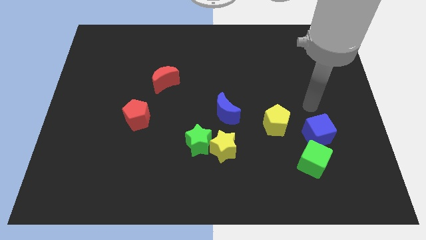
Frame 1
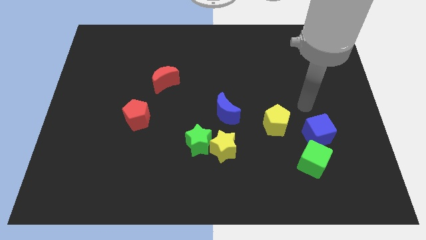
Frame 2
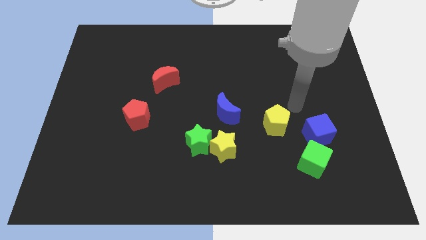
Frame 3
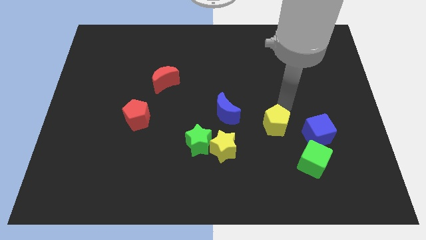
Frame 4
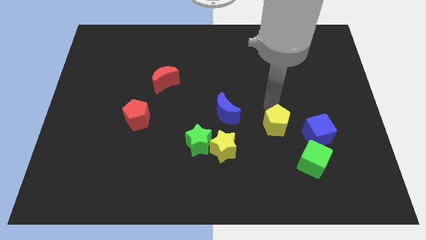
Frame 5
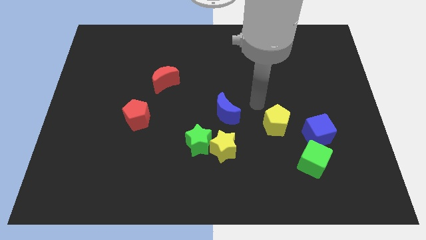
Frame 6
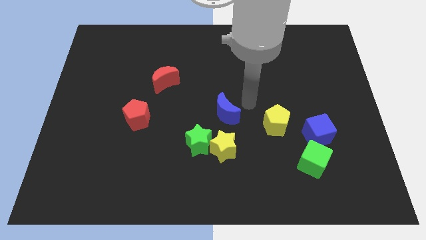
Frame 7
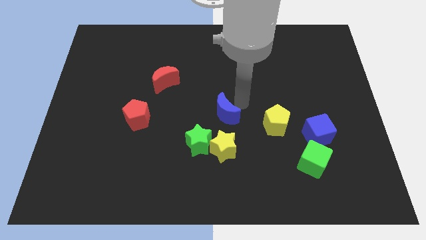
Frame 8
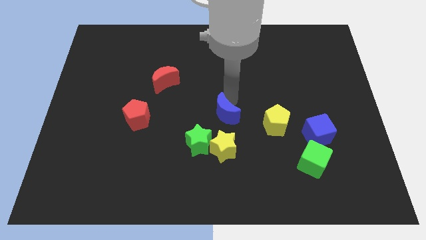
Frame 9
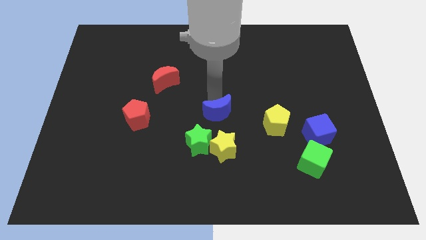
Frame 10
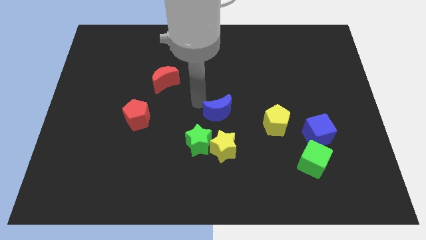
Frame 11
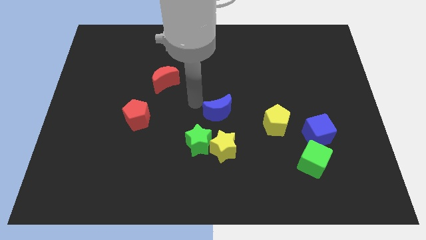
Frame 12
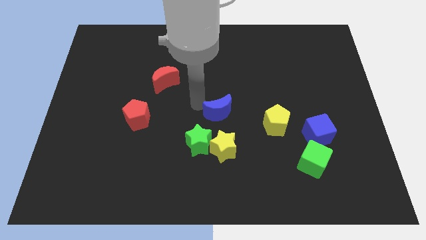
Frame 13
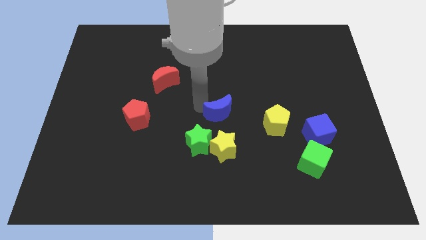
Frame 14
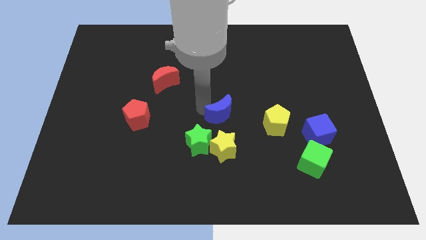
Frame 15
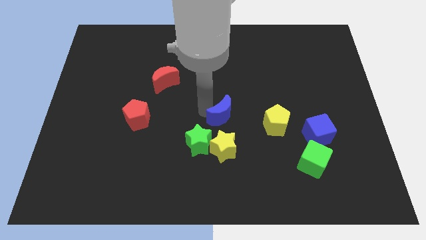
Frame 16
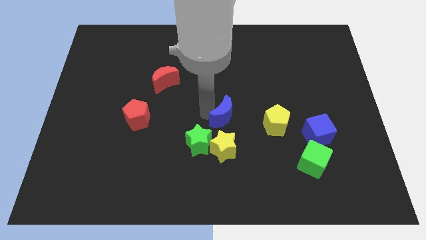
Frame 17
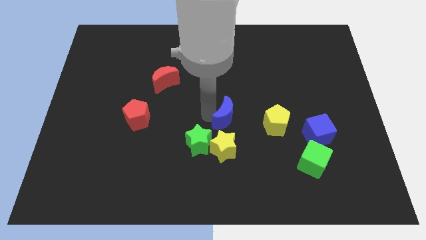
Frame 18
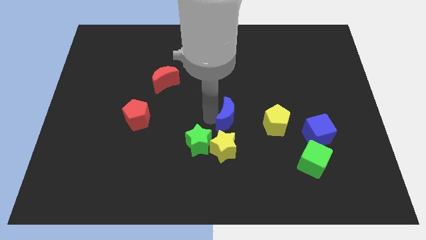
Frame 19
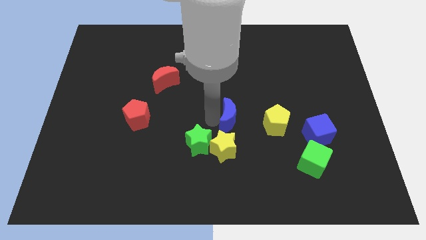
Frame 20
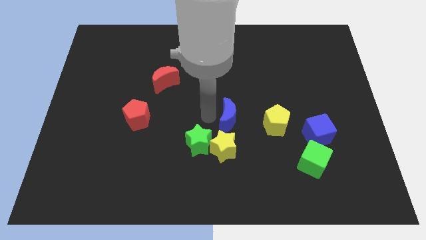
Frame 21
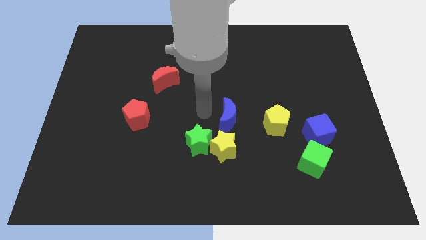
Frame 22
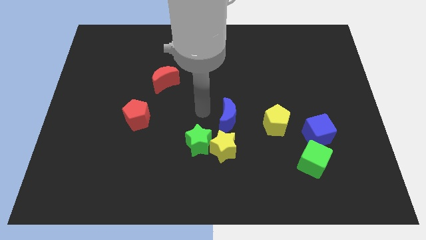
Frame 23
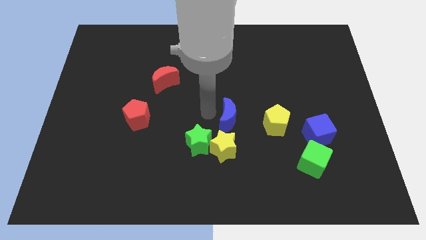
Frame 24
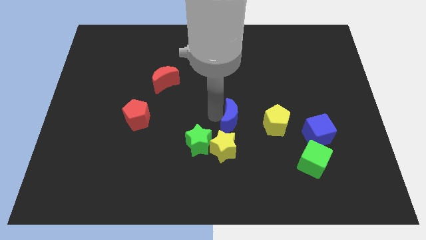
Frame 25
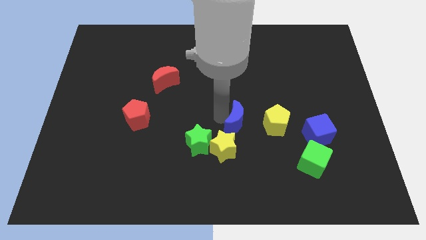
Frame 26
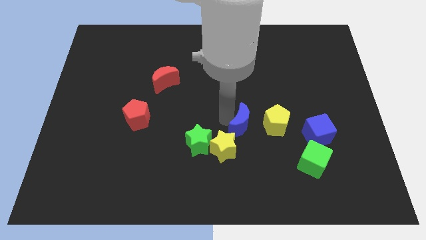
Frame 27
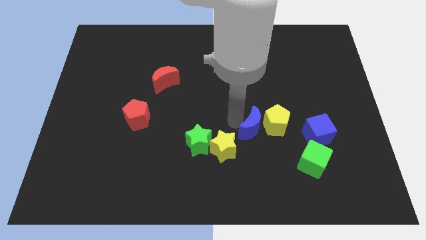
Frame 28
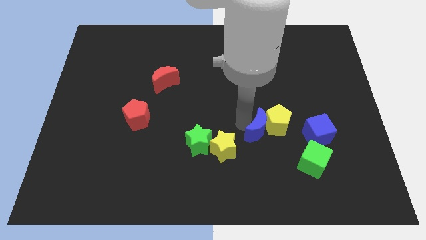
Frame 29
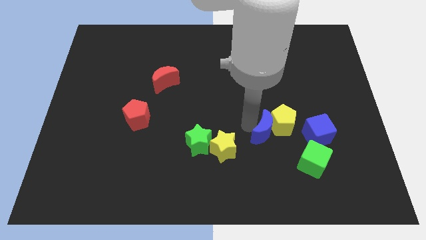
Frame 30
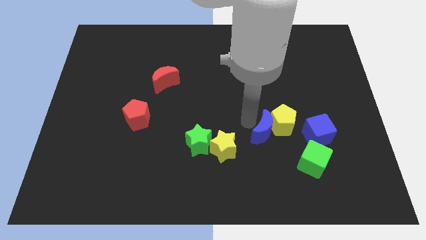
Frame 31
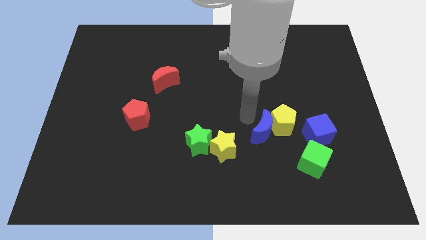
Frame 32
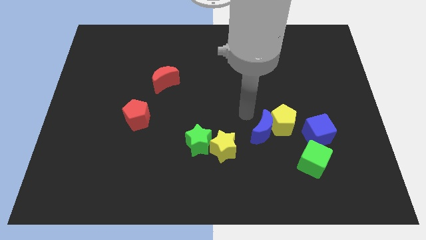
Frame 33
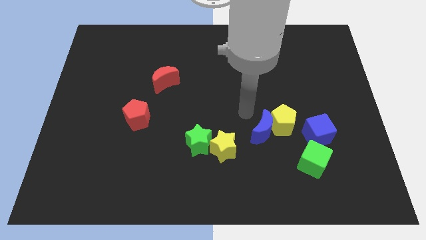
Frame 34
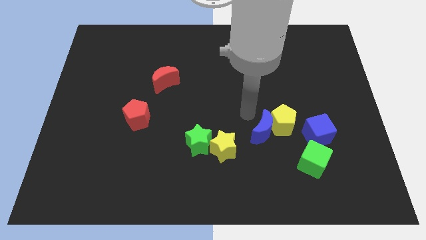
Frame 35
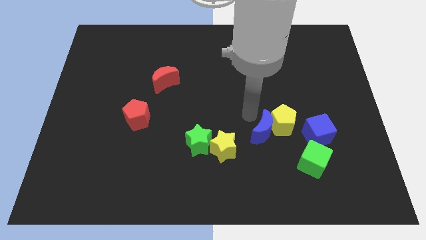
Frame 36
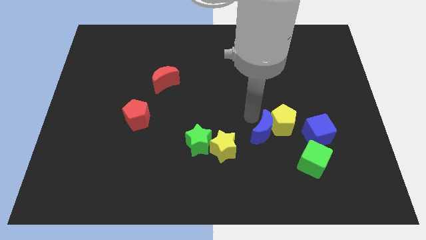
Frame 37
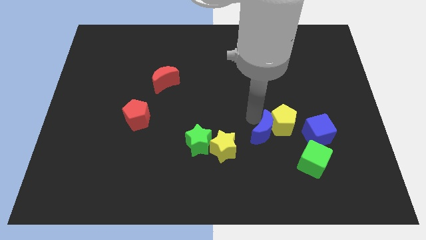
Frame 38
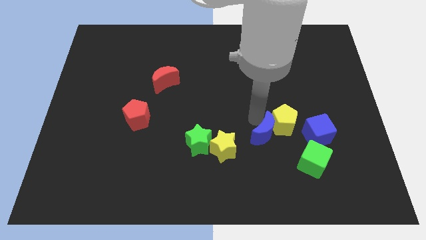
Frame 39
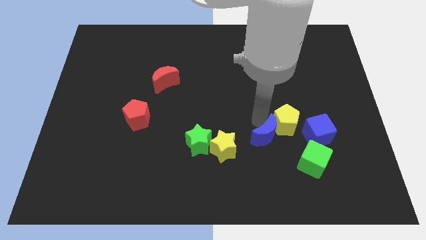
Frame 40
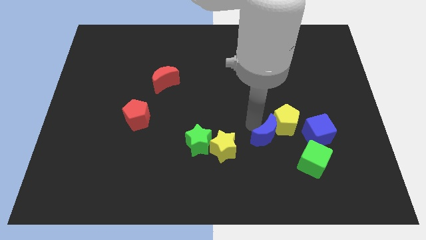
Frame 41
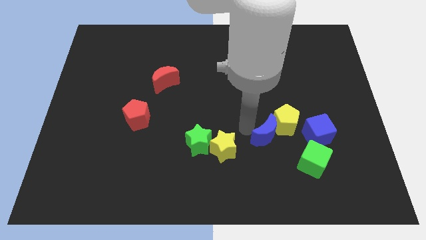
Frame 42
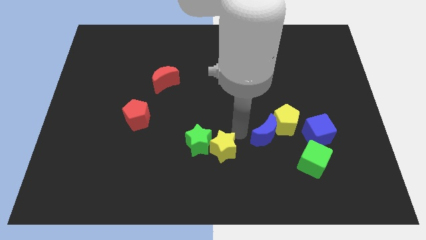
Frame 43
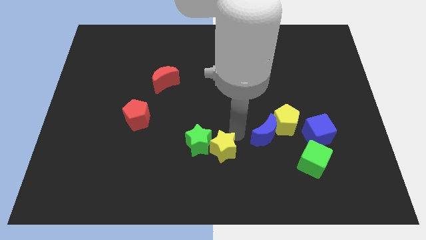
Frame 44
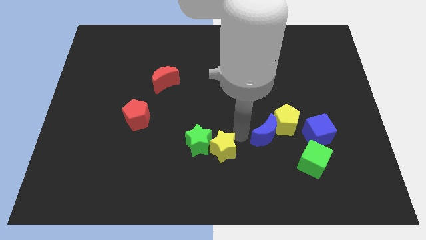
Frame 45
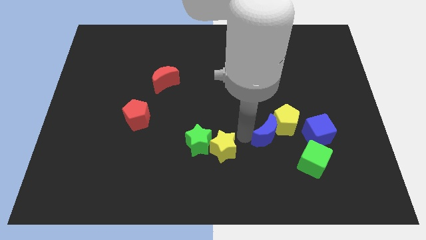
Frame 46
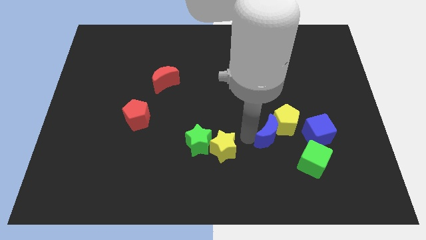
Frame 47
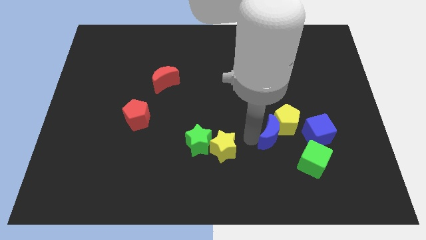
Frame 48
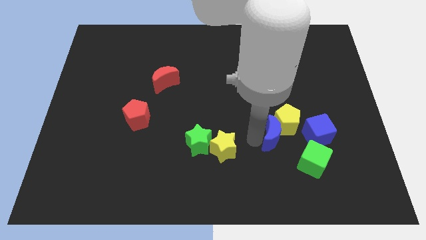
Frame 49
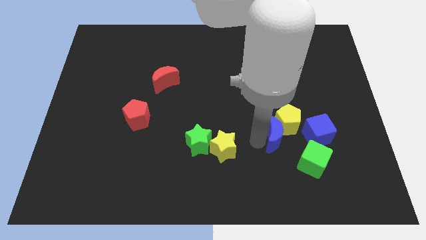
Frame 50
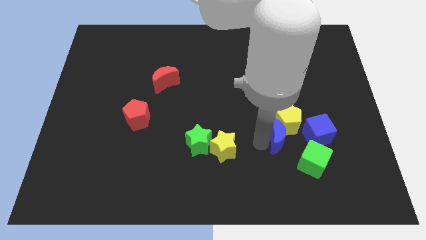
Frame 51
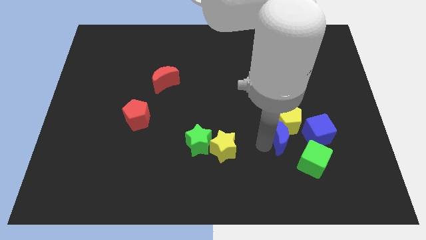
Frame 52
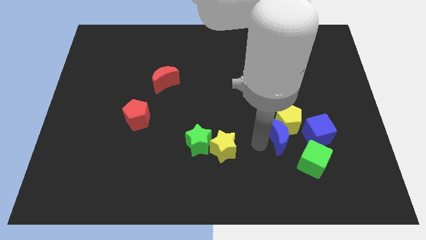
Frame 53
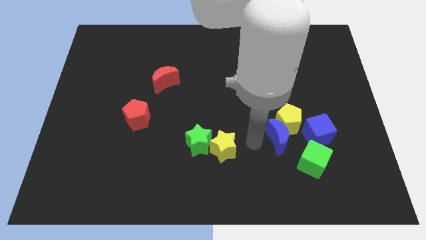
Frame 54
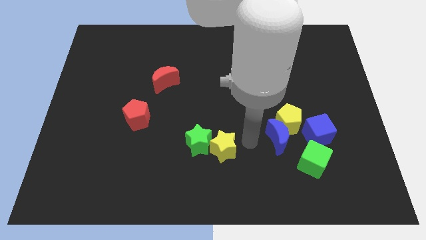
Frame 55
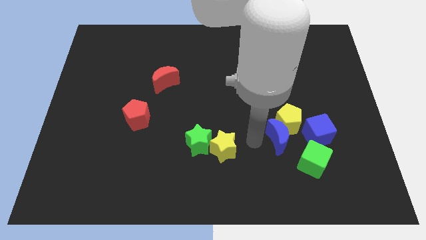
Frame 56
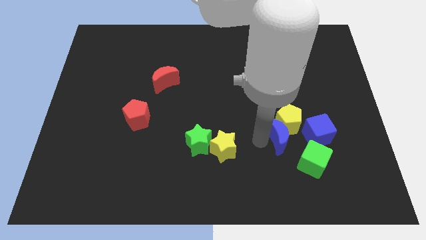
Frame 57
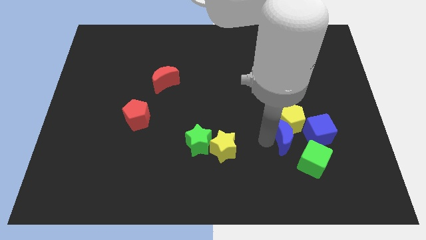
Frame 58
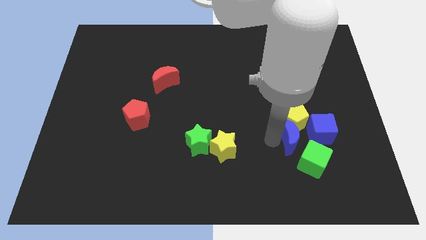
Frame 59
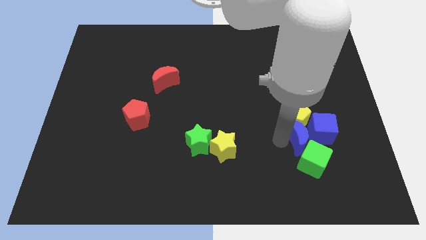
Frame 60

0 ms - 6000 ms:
slide the blue moon to the blue cube

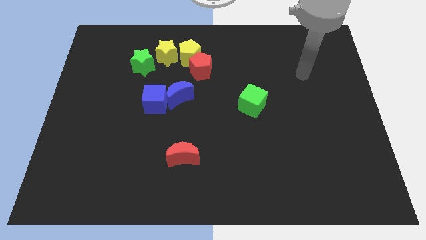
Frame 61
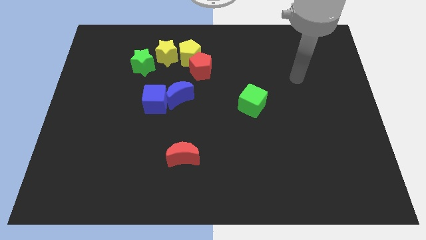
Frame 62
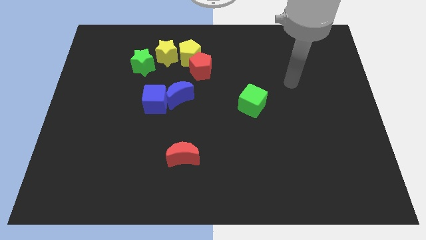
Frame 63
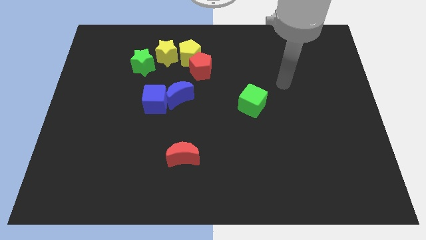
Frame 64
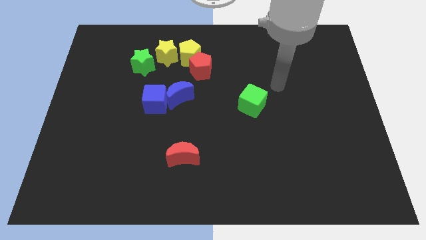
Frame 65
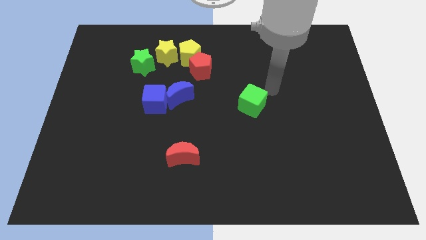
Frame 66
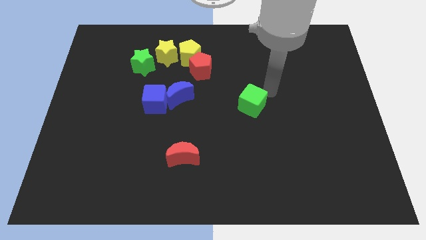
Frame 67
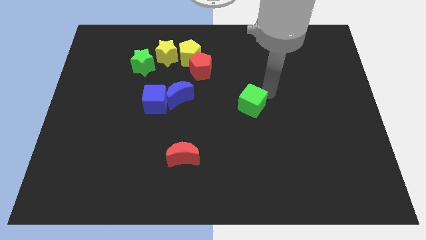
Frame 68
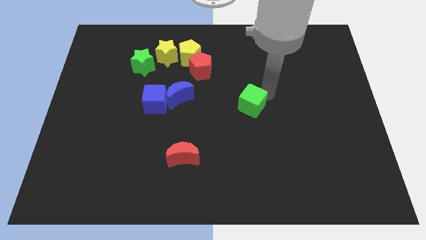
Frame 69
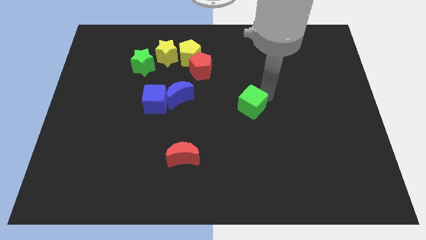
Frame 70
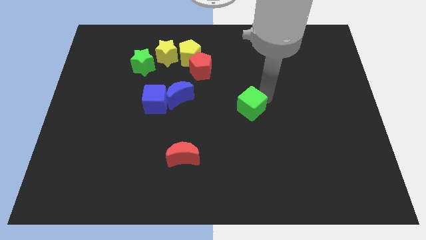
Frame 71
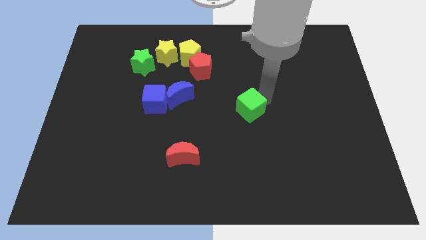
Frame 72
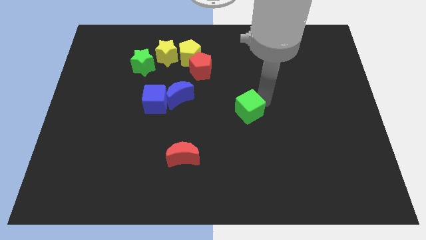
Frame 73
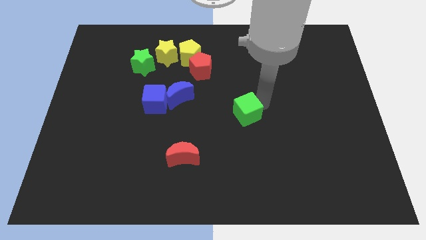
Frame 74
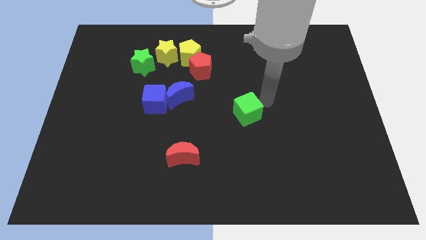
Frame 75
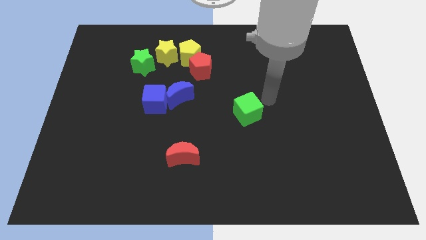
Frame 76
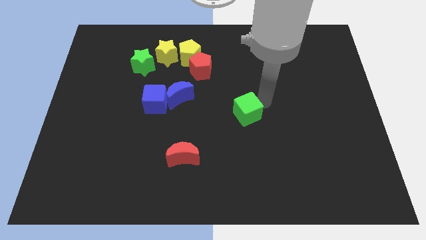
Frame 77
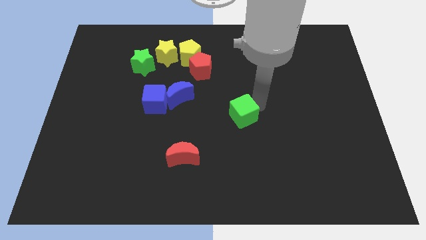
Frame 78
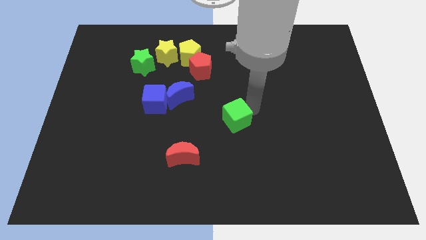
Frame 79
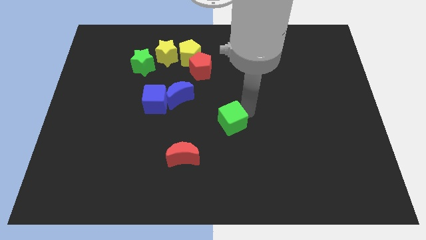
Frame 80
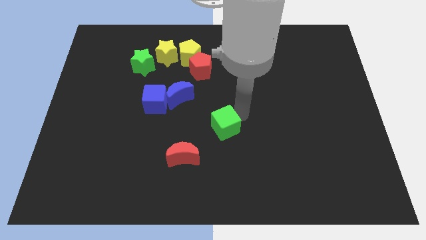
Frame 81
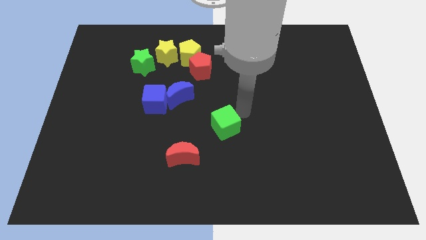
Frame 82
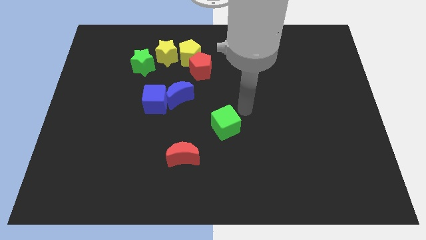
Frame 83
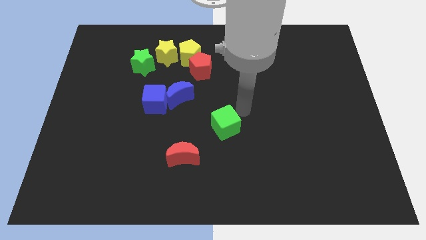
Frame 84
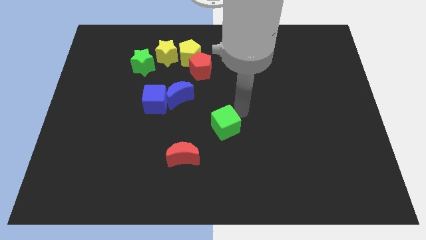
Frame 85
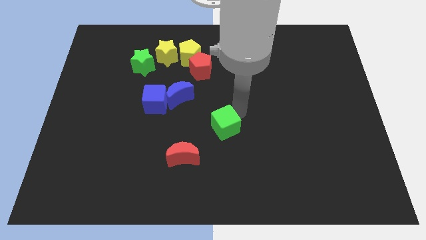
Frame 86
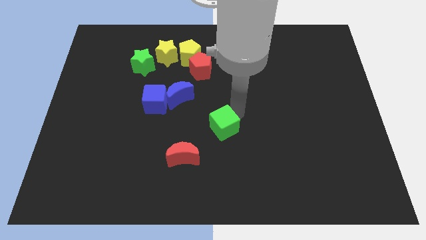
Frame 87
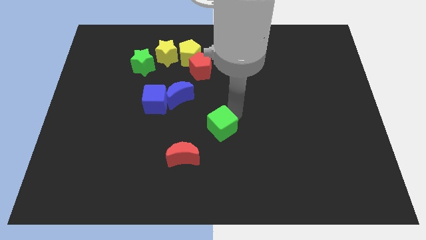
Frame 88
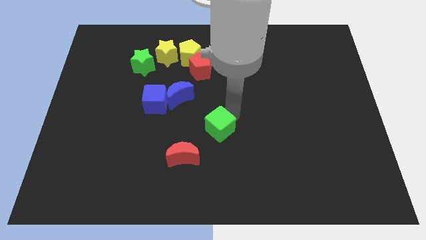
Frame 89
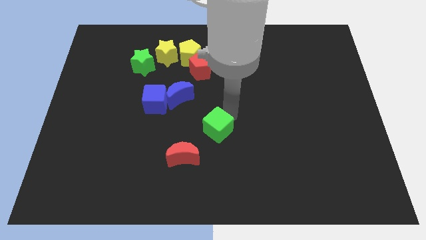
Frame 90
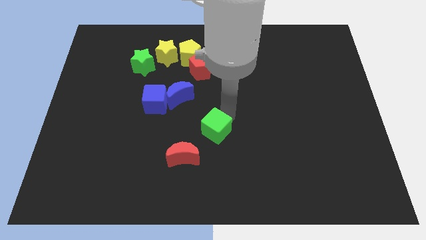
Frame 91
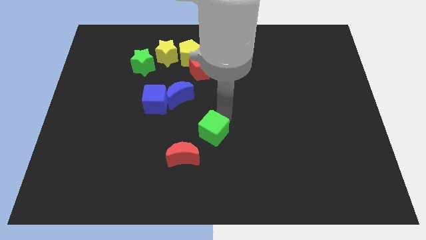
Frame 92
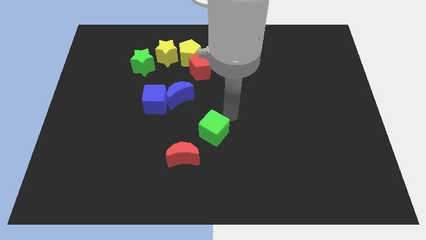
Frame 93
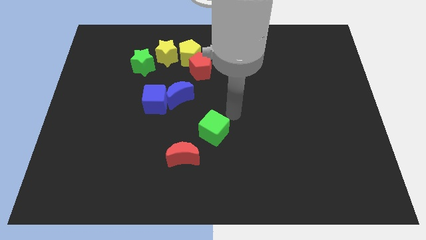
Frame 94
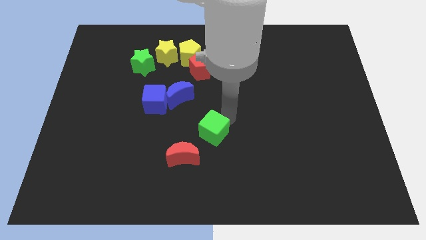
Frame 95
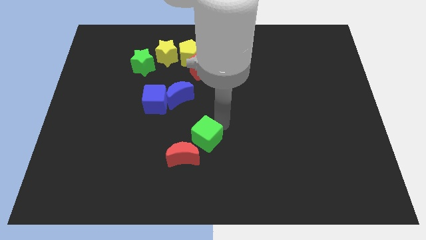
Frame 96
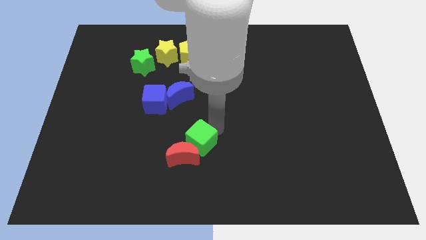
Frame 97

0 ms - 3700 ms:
move the green cube next to the red moon
